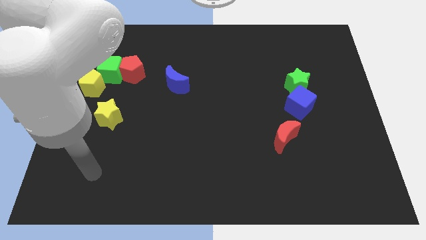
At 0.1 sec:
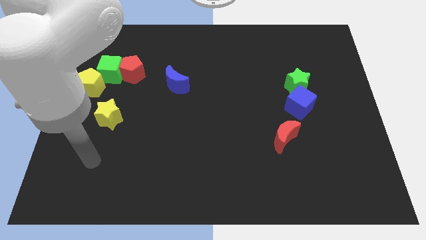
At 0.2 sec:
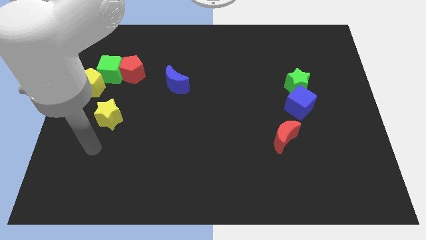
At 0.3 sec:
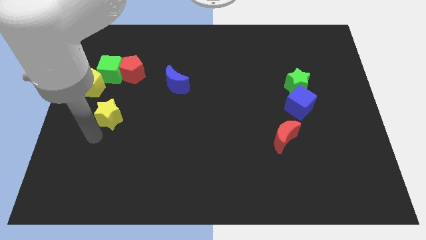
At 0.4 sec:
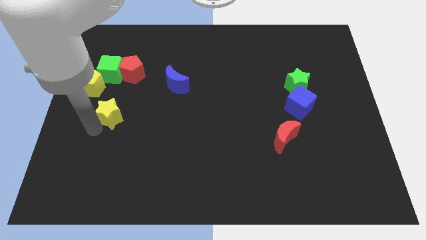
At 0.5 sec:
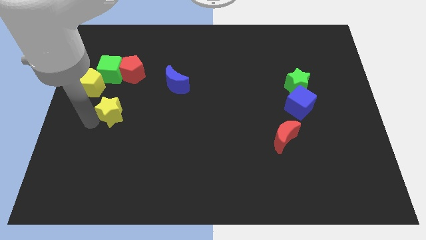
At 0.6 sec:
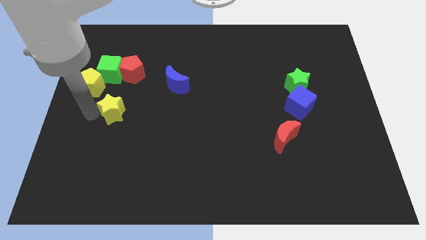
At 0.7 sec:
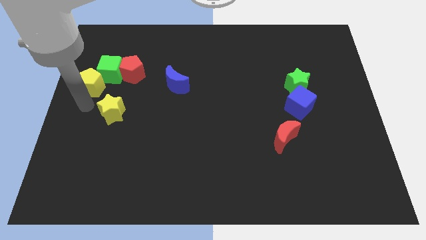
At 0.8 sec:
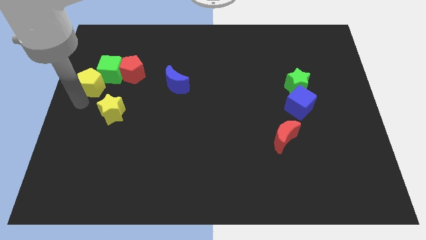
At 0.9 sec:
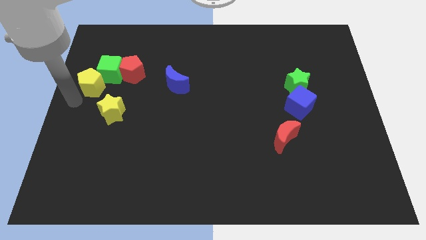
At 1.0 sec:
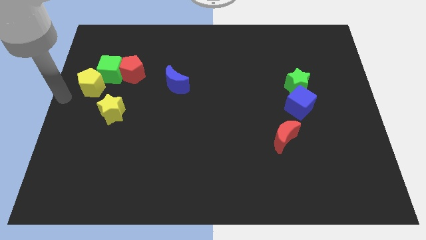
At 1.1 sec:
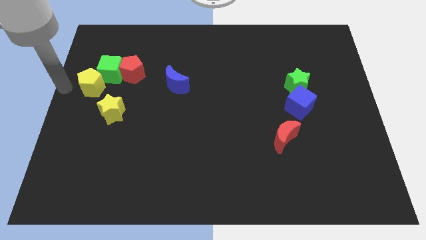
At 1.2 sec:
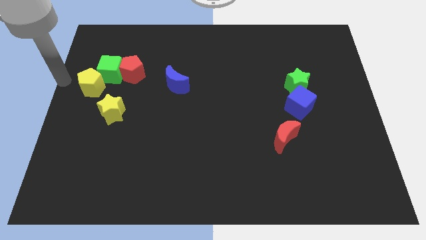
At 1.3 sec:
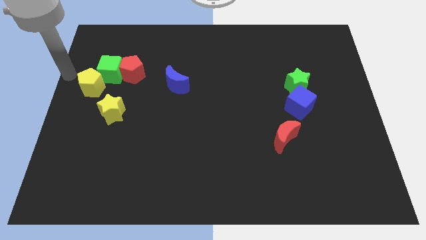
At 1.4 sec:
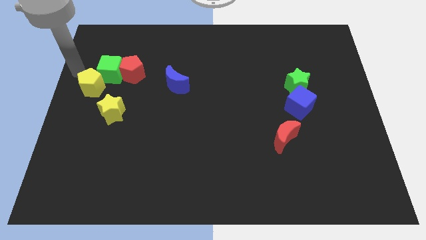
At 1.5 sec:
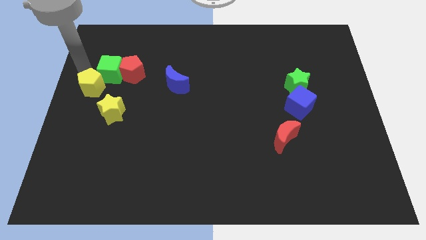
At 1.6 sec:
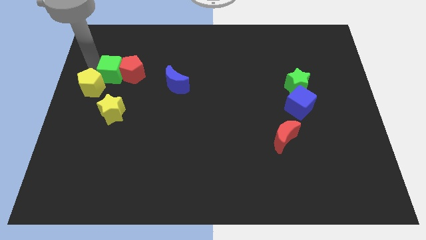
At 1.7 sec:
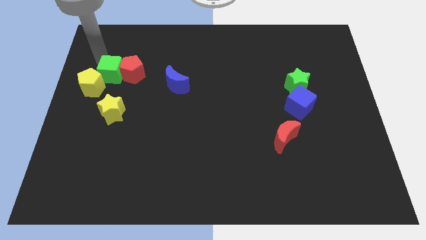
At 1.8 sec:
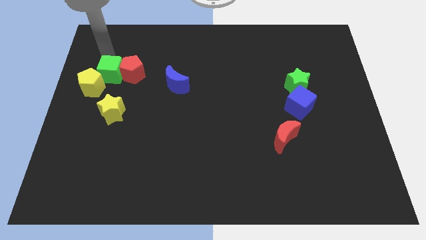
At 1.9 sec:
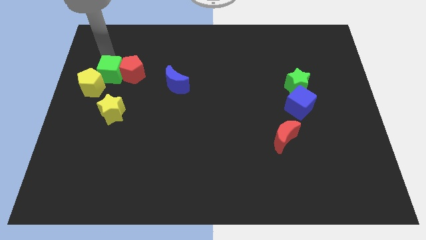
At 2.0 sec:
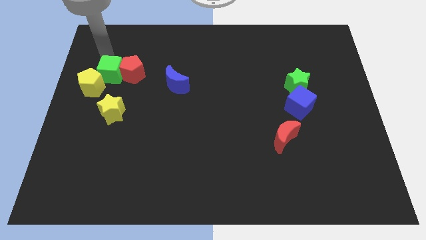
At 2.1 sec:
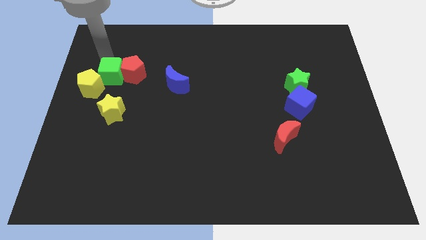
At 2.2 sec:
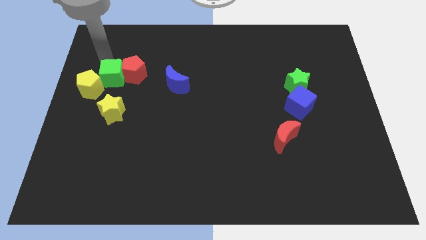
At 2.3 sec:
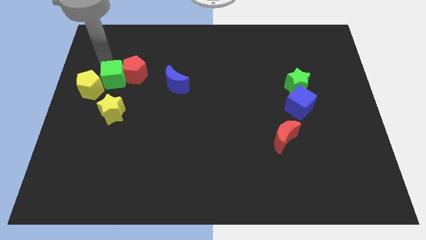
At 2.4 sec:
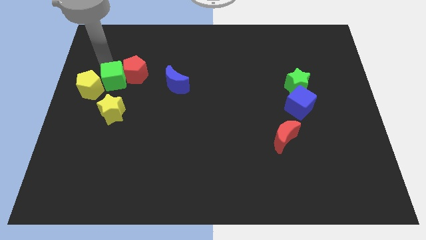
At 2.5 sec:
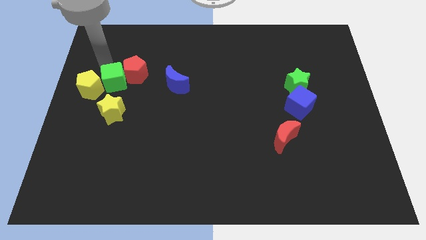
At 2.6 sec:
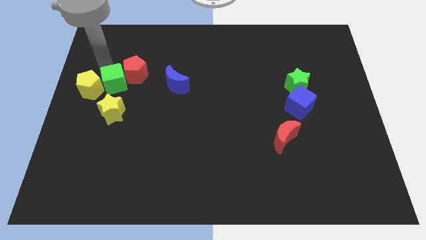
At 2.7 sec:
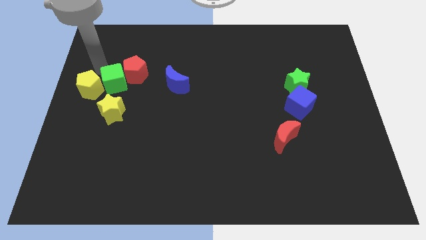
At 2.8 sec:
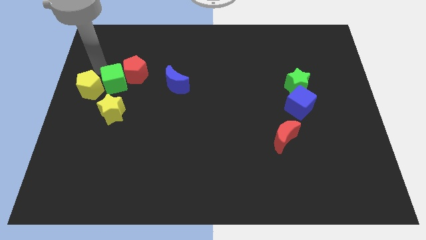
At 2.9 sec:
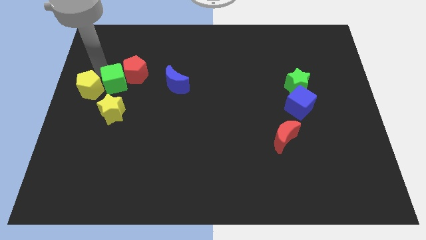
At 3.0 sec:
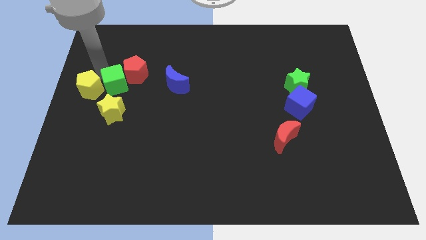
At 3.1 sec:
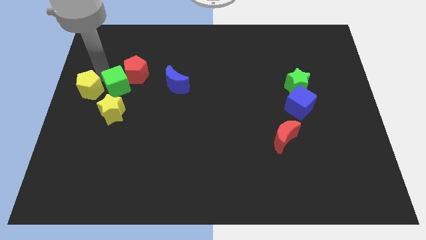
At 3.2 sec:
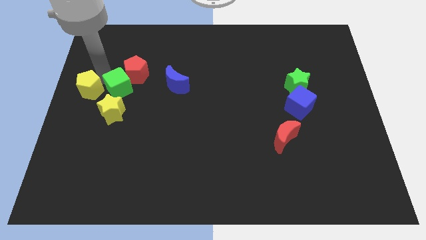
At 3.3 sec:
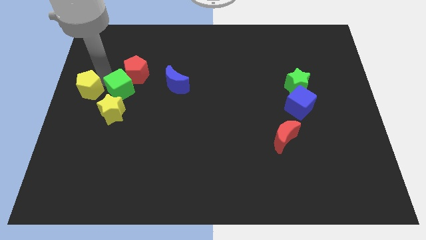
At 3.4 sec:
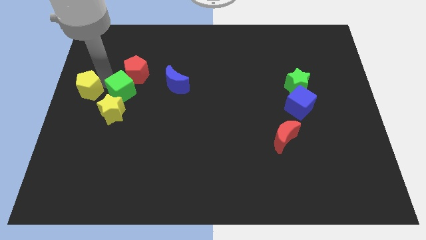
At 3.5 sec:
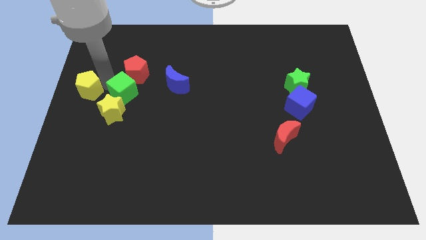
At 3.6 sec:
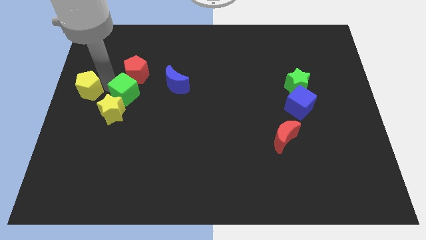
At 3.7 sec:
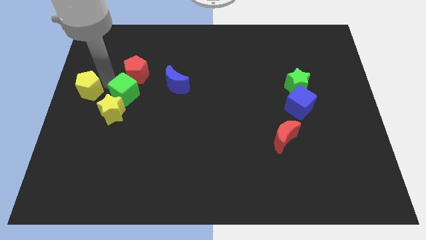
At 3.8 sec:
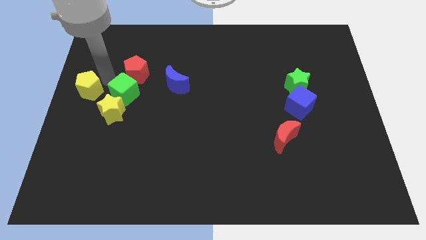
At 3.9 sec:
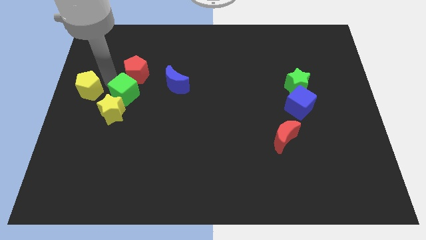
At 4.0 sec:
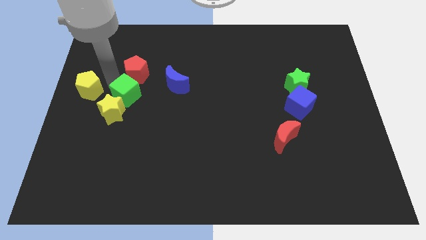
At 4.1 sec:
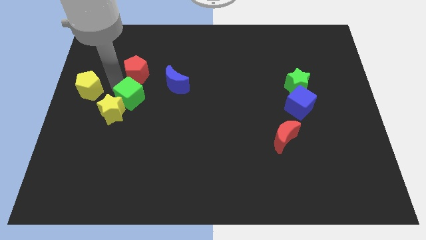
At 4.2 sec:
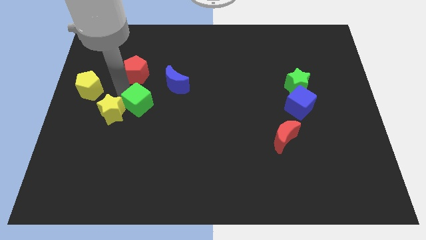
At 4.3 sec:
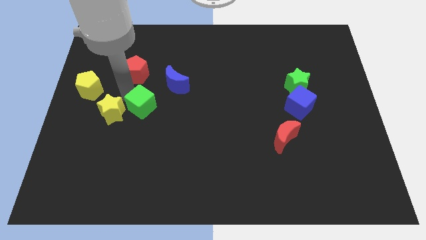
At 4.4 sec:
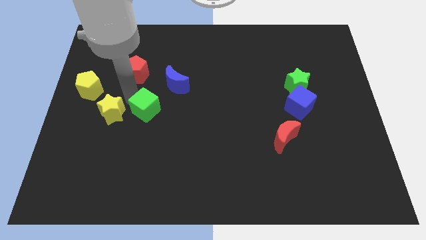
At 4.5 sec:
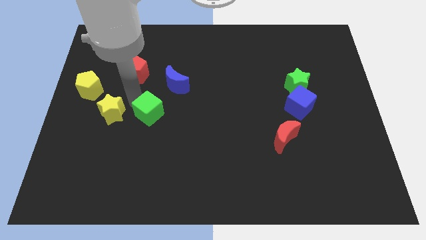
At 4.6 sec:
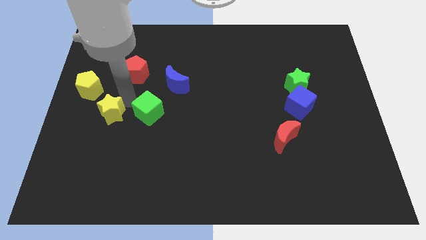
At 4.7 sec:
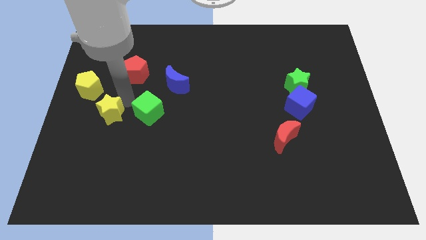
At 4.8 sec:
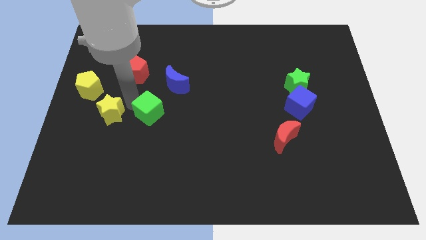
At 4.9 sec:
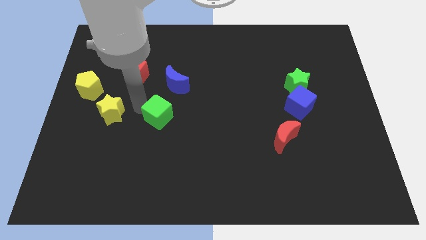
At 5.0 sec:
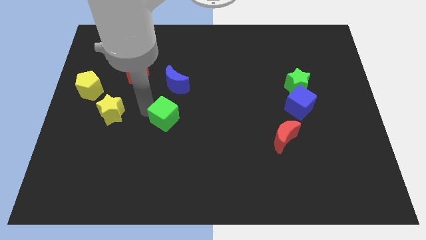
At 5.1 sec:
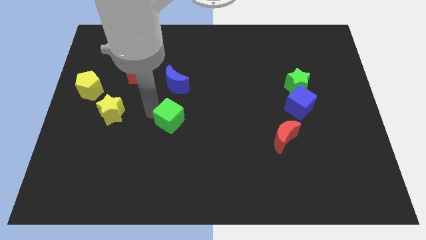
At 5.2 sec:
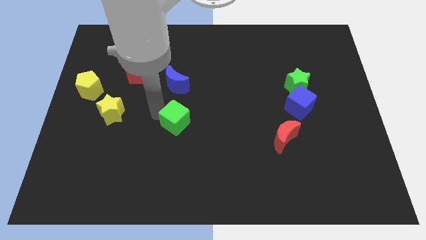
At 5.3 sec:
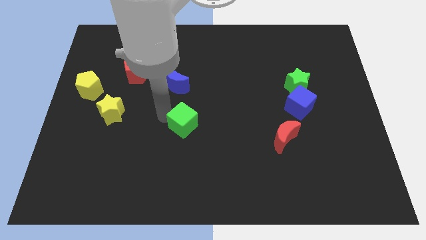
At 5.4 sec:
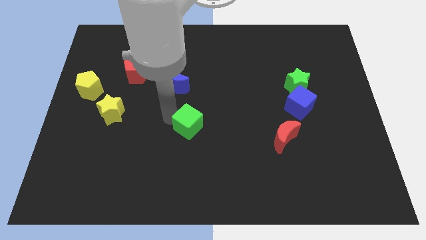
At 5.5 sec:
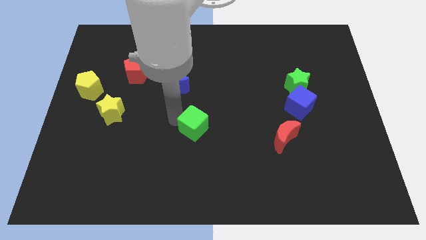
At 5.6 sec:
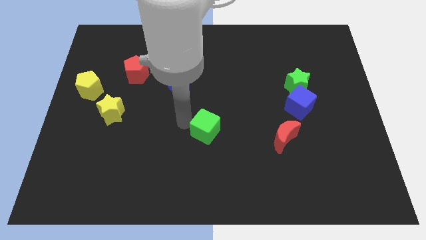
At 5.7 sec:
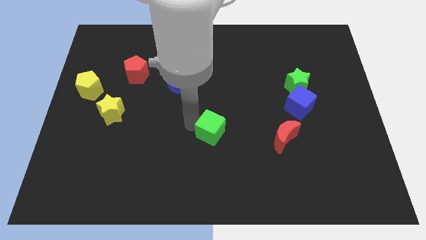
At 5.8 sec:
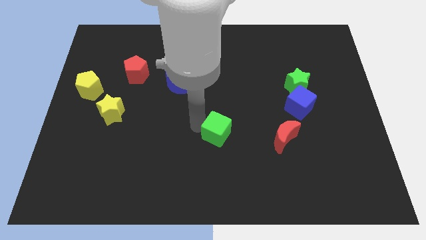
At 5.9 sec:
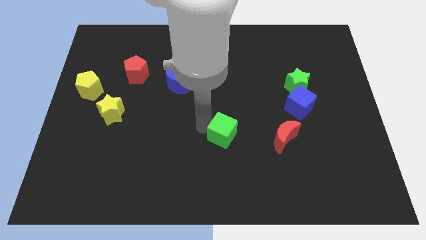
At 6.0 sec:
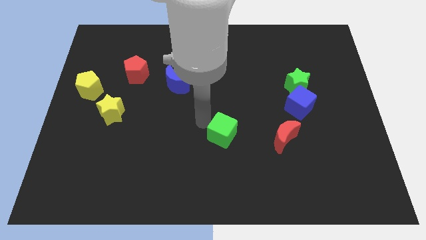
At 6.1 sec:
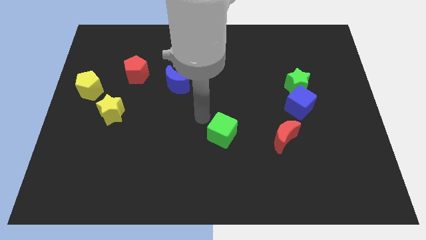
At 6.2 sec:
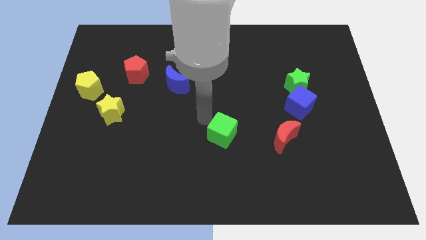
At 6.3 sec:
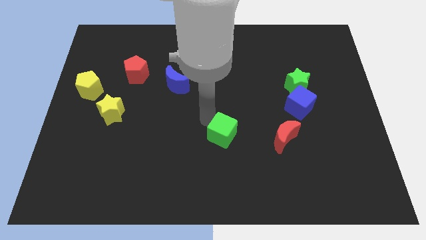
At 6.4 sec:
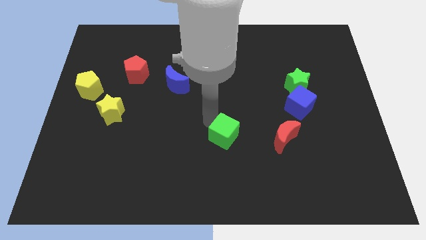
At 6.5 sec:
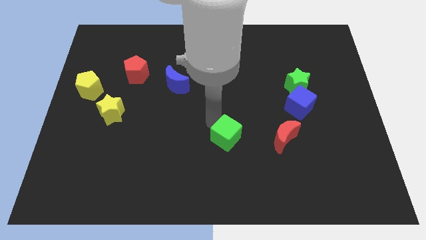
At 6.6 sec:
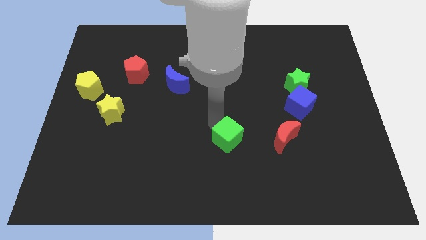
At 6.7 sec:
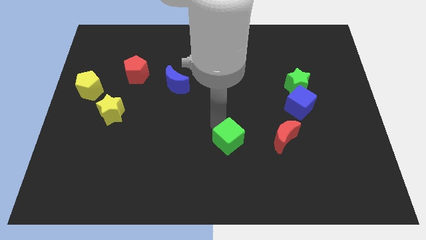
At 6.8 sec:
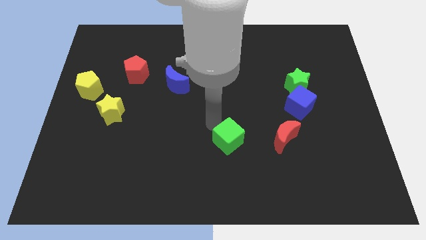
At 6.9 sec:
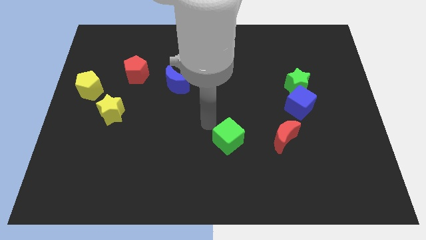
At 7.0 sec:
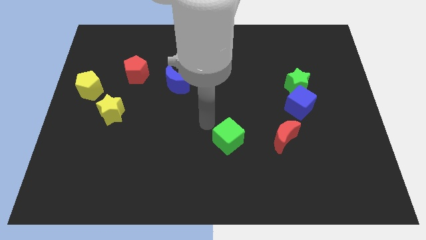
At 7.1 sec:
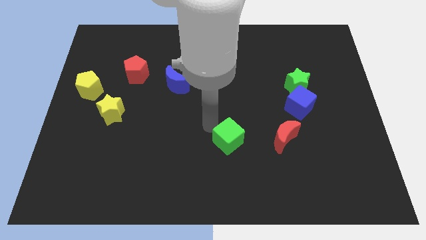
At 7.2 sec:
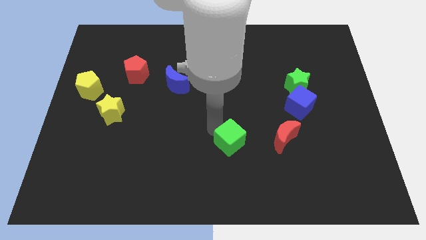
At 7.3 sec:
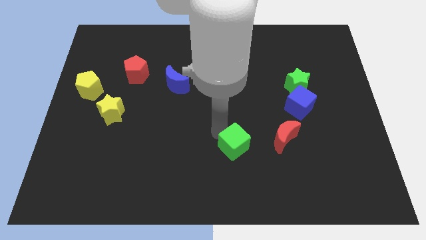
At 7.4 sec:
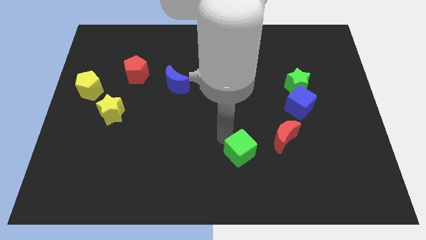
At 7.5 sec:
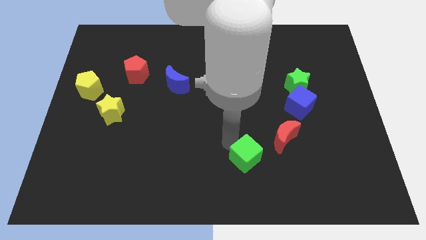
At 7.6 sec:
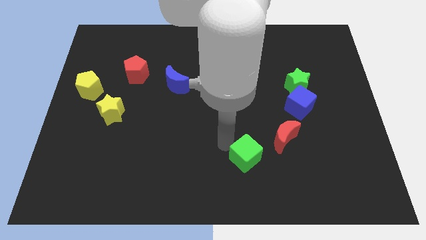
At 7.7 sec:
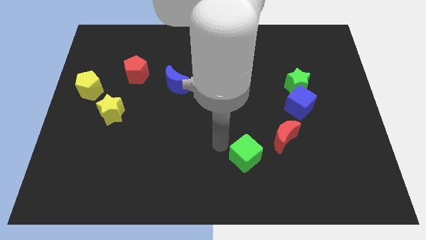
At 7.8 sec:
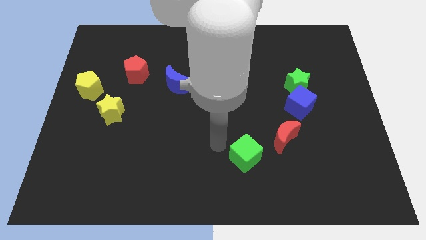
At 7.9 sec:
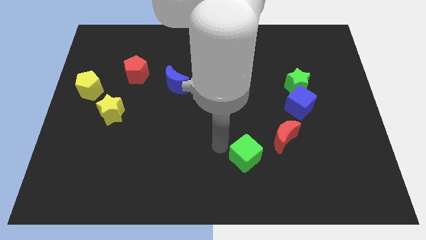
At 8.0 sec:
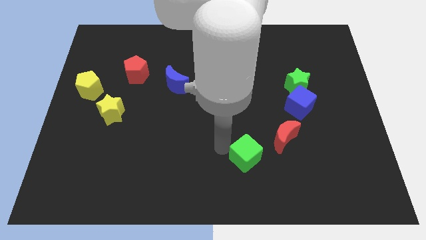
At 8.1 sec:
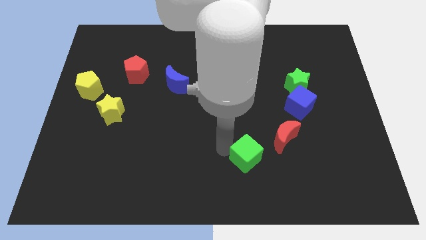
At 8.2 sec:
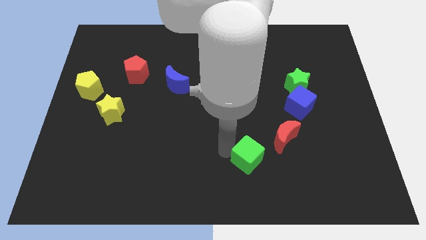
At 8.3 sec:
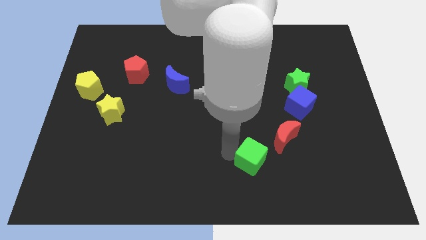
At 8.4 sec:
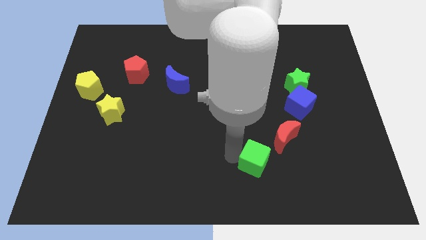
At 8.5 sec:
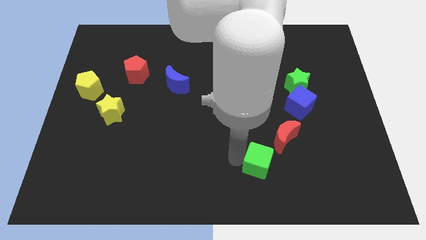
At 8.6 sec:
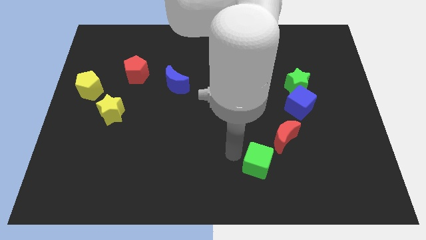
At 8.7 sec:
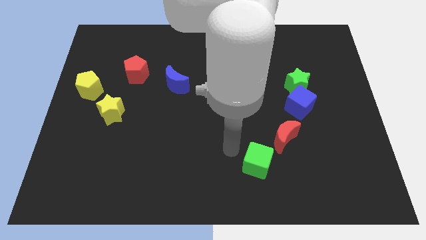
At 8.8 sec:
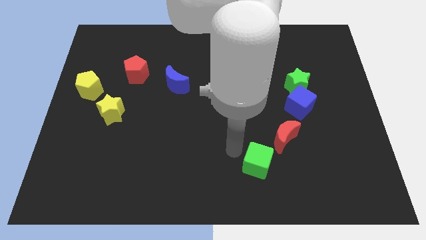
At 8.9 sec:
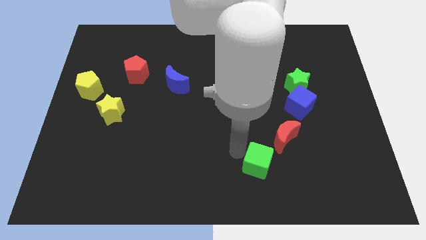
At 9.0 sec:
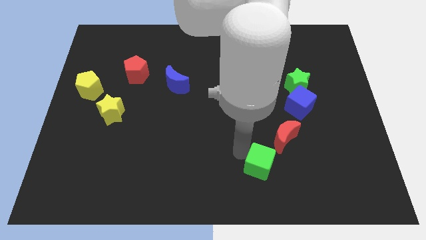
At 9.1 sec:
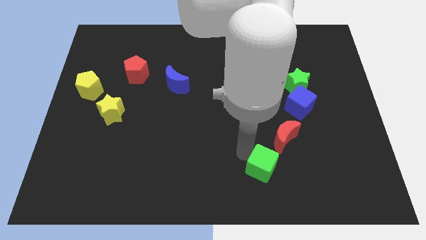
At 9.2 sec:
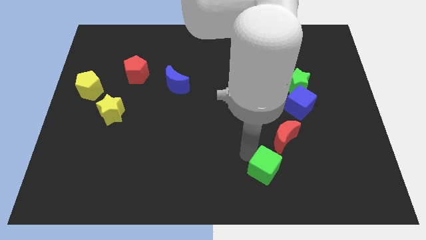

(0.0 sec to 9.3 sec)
push the green cube below the red moon
